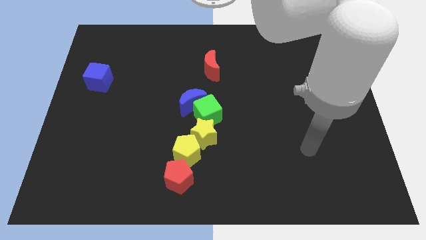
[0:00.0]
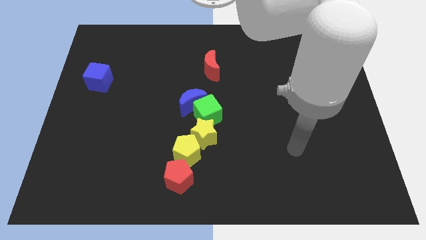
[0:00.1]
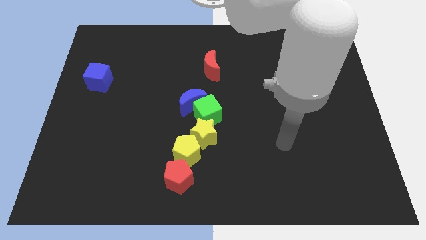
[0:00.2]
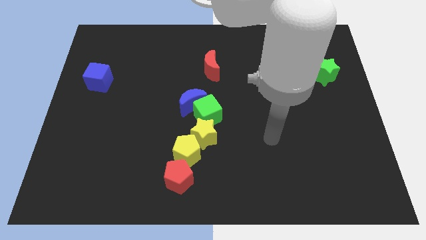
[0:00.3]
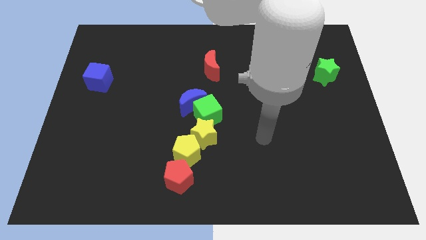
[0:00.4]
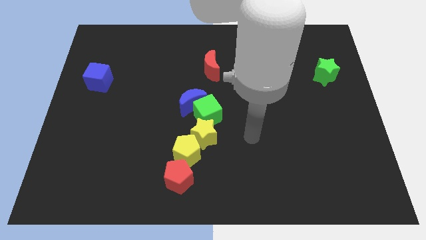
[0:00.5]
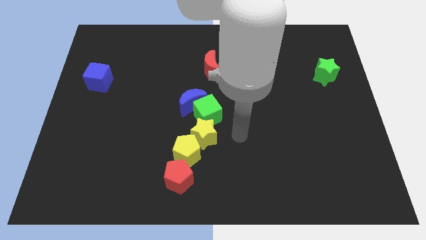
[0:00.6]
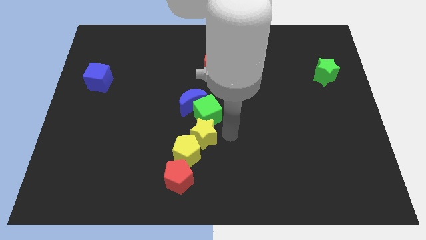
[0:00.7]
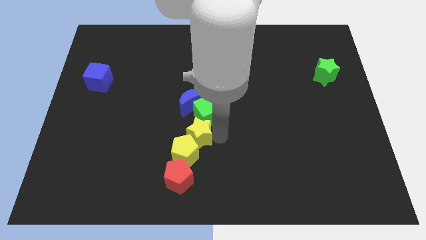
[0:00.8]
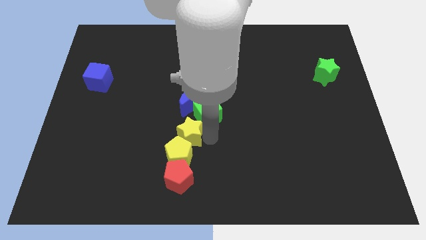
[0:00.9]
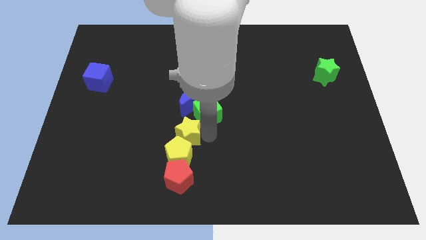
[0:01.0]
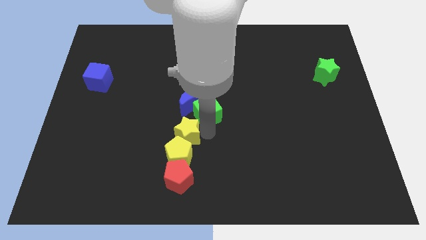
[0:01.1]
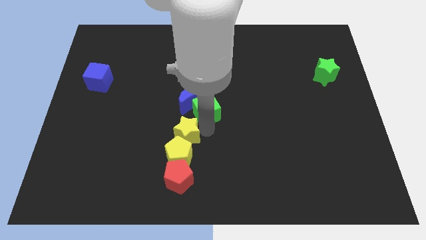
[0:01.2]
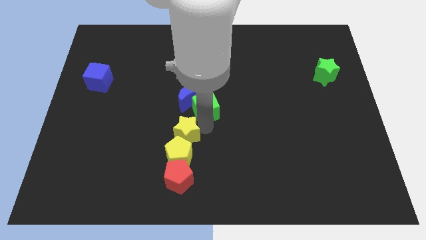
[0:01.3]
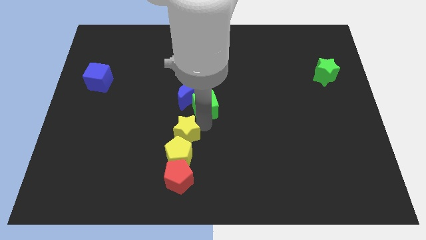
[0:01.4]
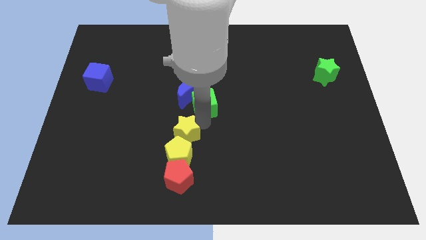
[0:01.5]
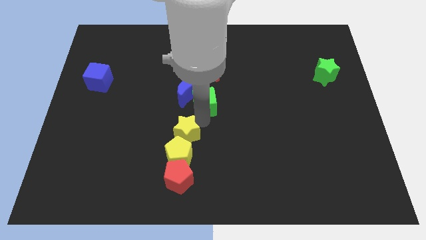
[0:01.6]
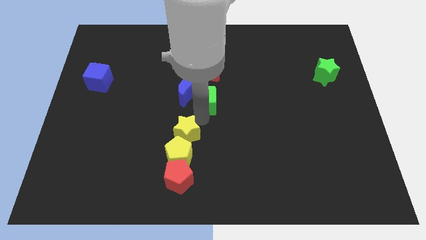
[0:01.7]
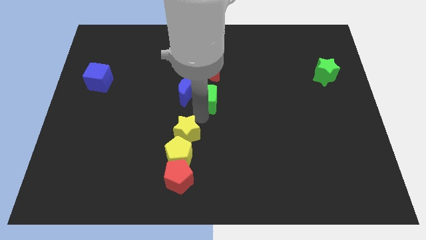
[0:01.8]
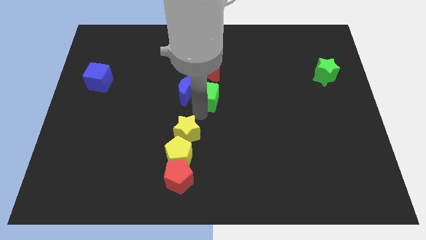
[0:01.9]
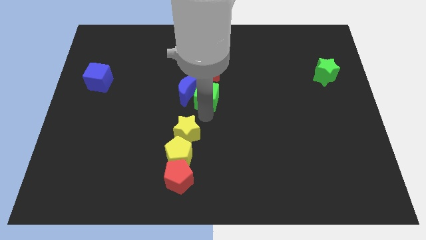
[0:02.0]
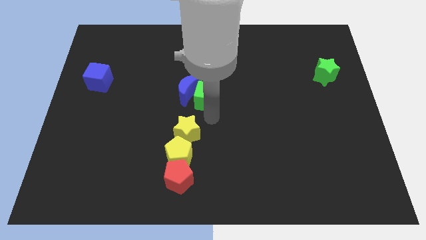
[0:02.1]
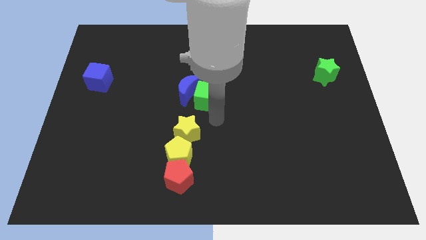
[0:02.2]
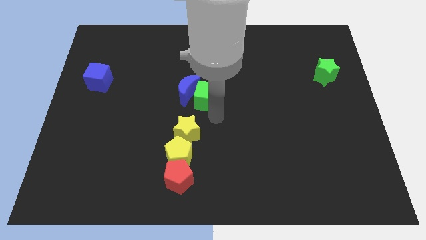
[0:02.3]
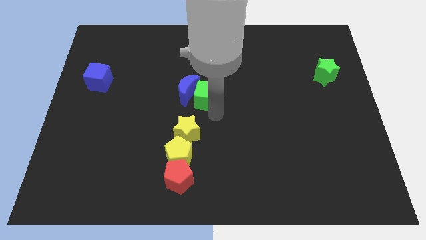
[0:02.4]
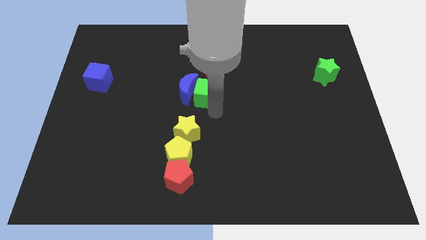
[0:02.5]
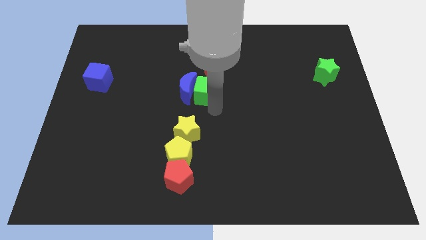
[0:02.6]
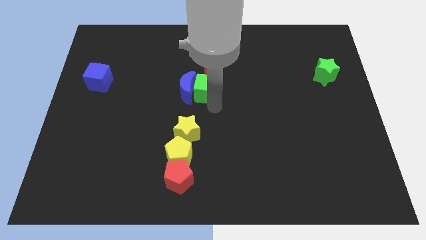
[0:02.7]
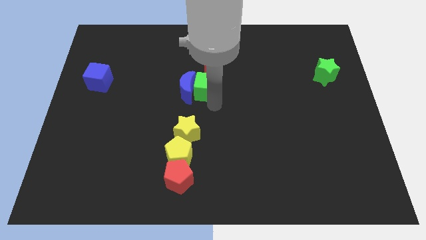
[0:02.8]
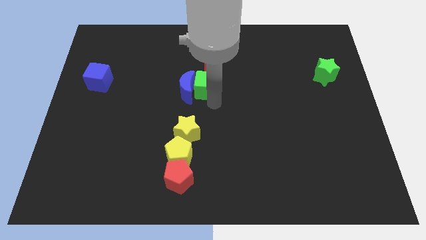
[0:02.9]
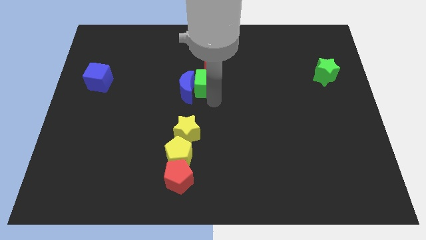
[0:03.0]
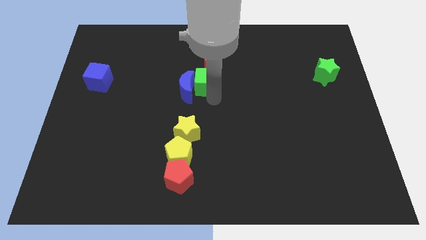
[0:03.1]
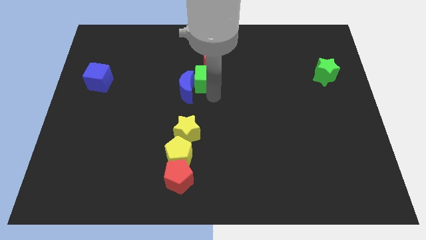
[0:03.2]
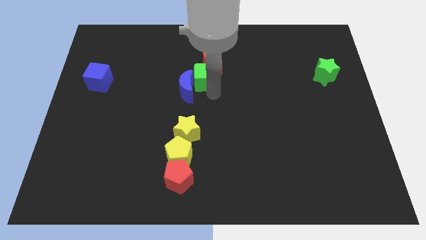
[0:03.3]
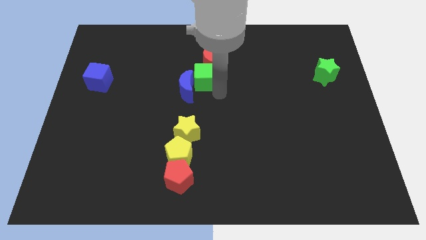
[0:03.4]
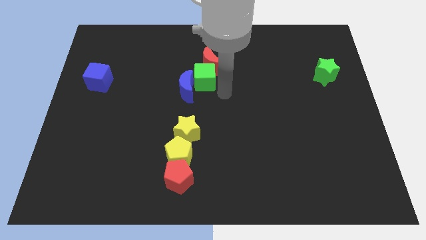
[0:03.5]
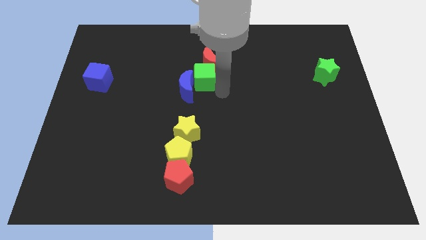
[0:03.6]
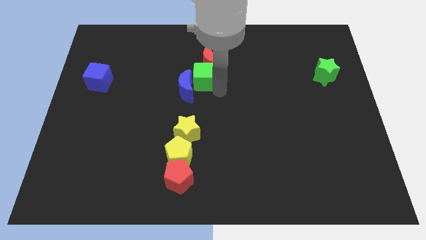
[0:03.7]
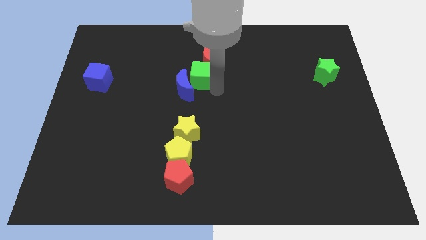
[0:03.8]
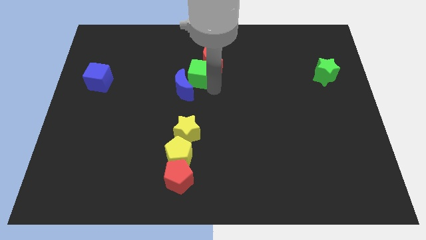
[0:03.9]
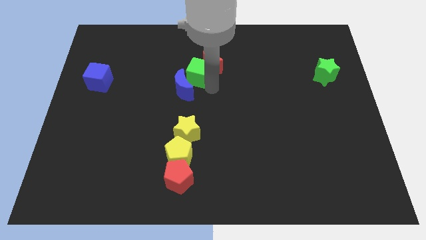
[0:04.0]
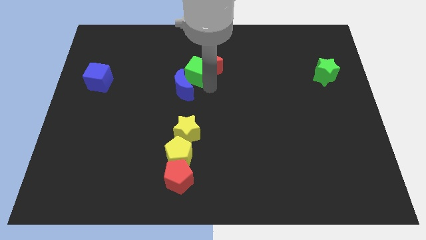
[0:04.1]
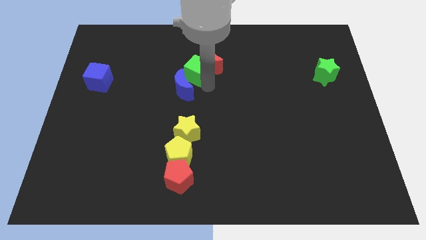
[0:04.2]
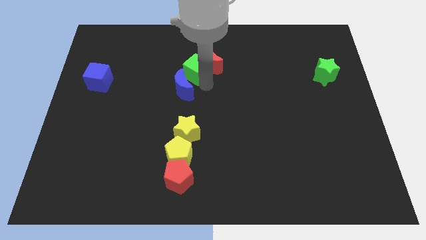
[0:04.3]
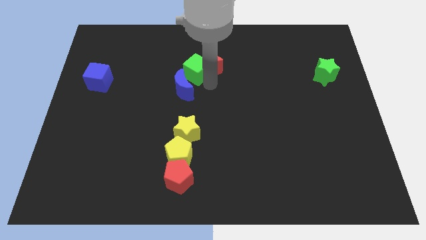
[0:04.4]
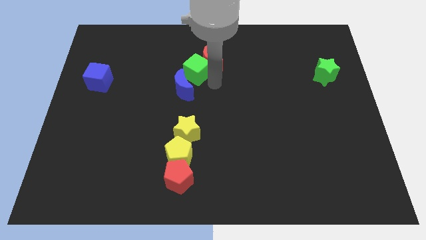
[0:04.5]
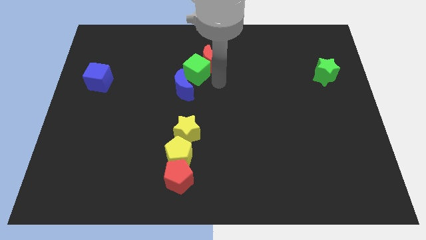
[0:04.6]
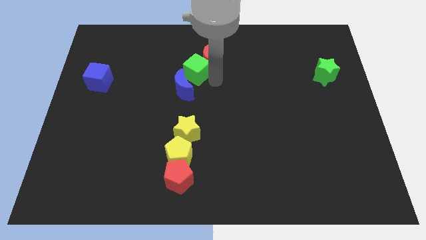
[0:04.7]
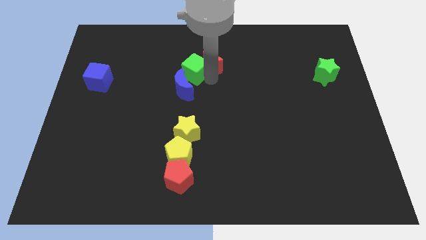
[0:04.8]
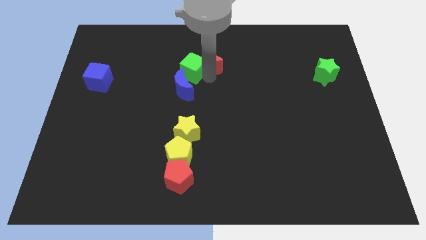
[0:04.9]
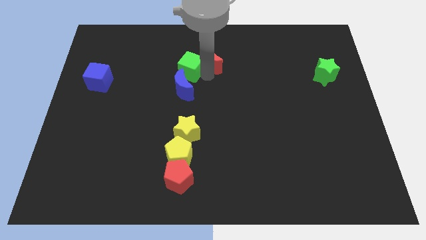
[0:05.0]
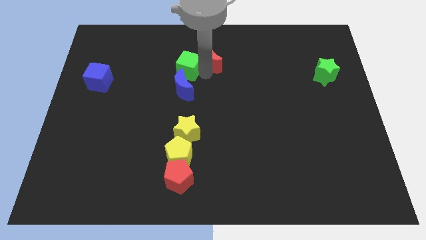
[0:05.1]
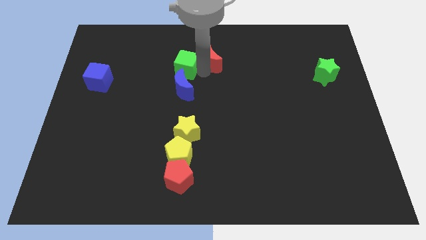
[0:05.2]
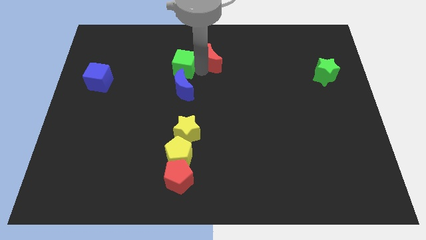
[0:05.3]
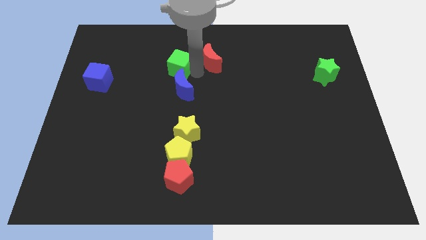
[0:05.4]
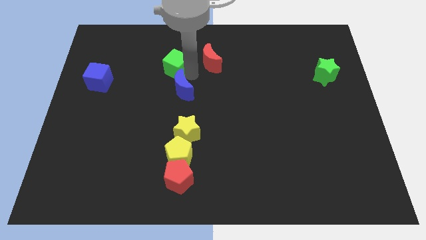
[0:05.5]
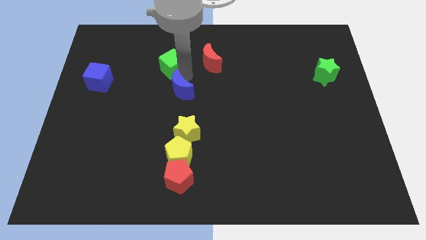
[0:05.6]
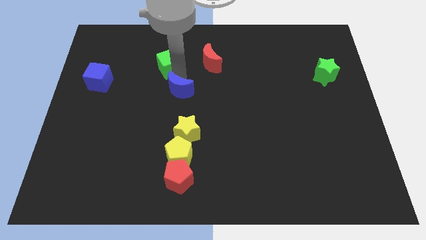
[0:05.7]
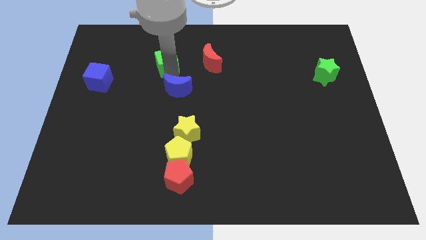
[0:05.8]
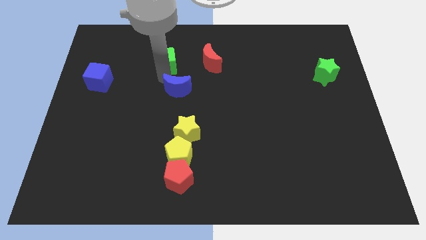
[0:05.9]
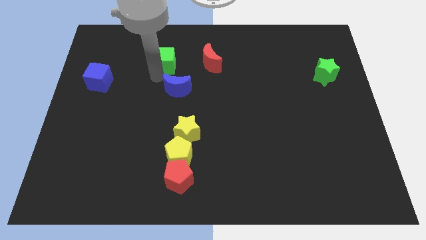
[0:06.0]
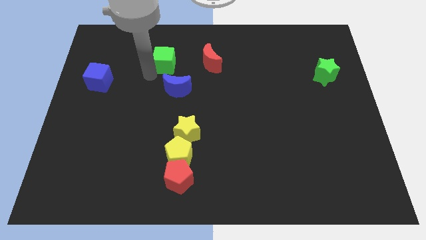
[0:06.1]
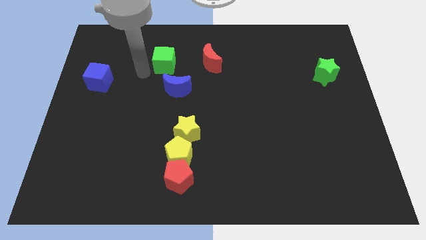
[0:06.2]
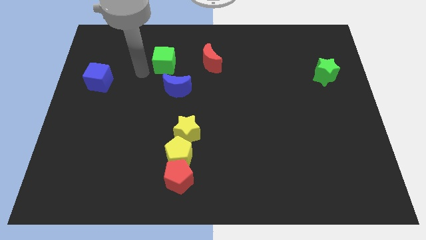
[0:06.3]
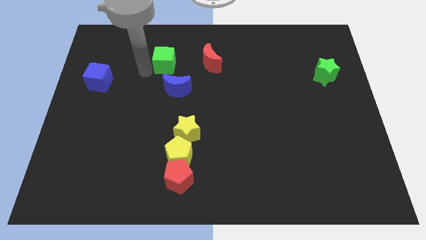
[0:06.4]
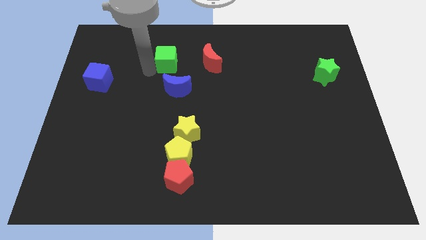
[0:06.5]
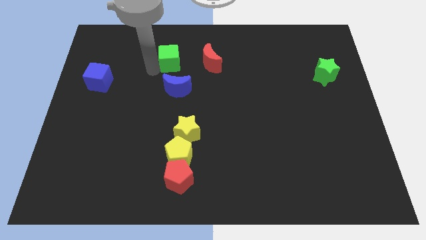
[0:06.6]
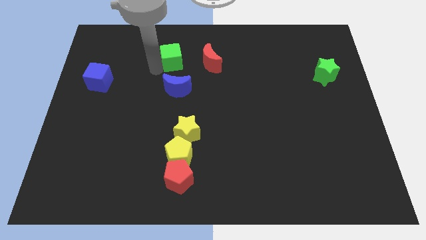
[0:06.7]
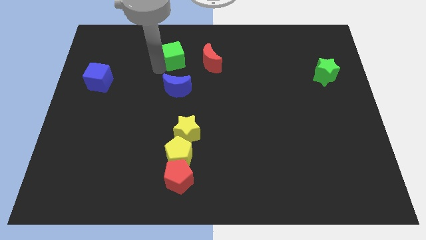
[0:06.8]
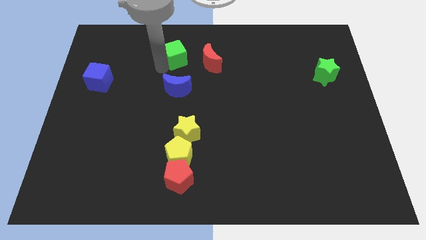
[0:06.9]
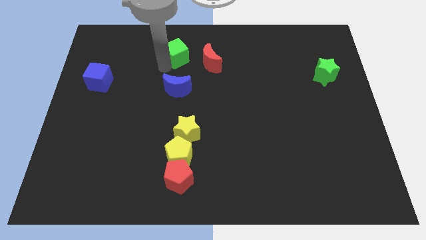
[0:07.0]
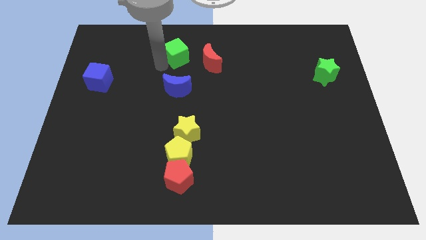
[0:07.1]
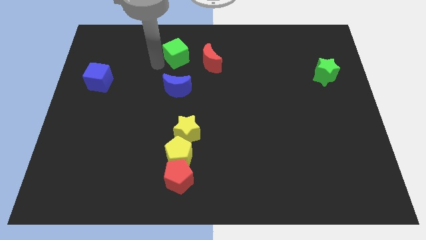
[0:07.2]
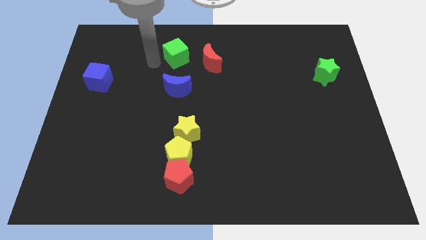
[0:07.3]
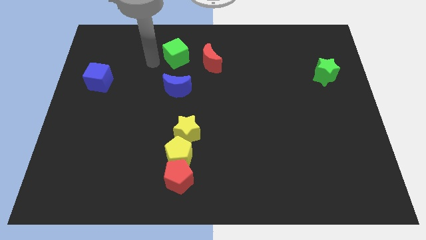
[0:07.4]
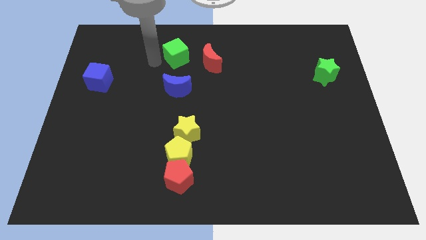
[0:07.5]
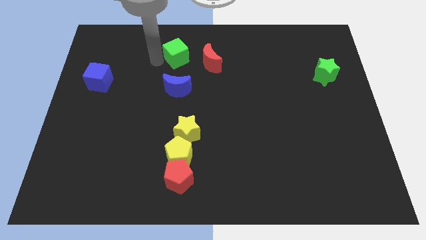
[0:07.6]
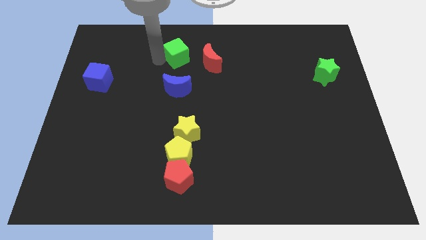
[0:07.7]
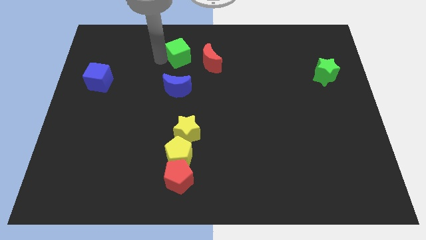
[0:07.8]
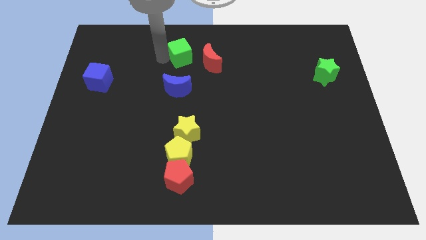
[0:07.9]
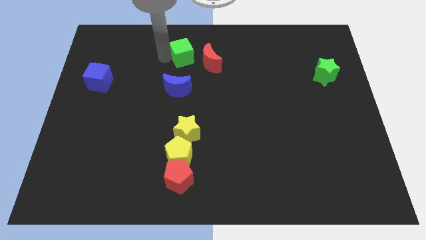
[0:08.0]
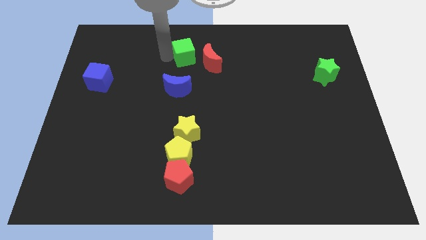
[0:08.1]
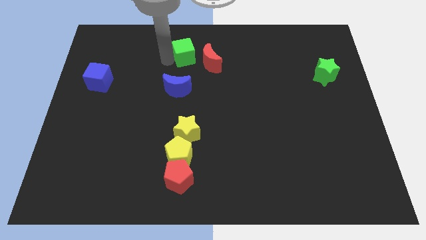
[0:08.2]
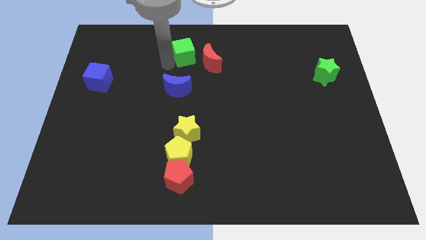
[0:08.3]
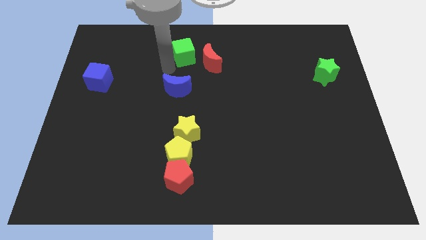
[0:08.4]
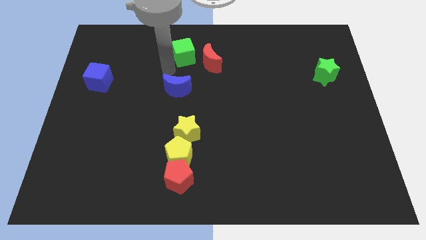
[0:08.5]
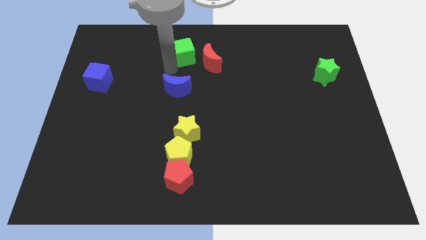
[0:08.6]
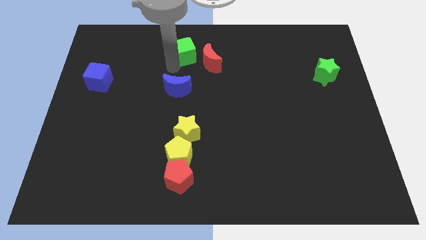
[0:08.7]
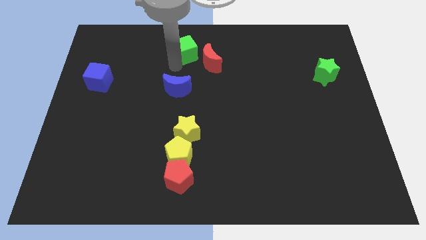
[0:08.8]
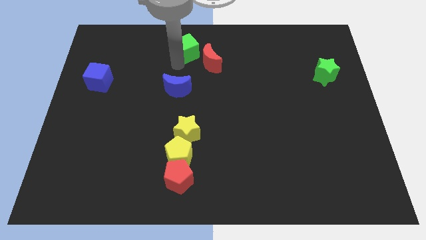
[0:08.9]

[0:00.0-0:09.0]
slide the green cube to the towards your base
